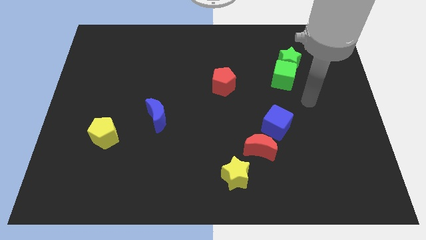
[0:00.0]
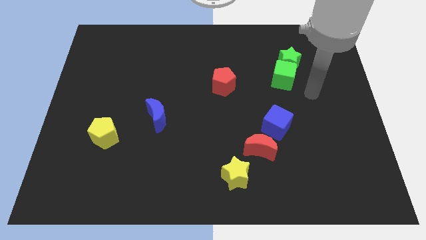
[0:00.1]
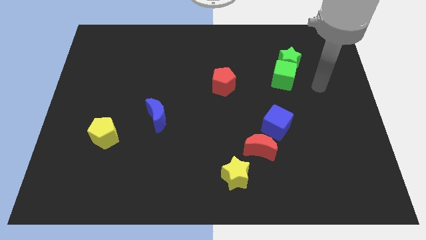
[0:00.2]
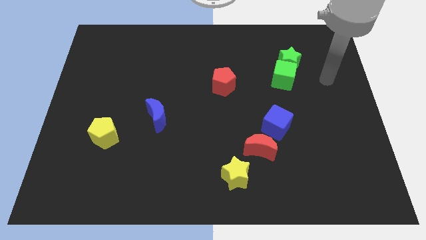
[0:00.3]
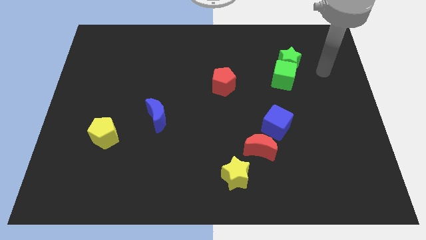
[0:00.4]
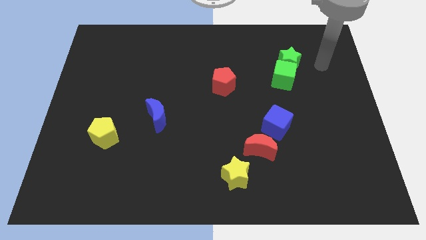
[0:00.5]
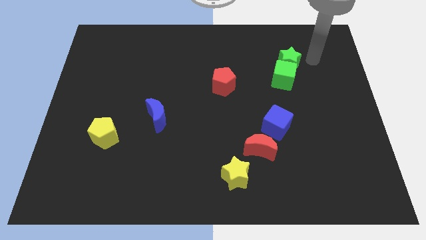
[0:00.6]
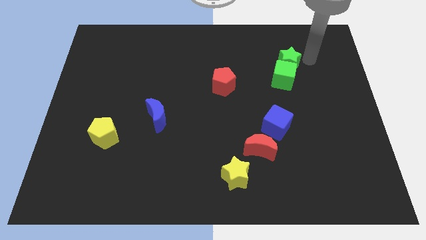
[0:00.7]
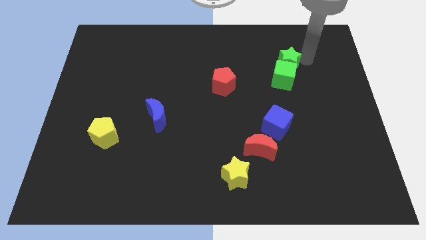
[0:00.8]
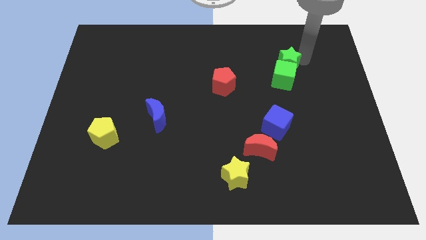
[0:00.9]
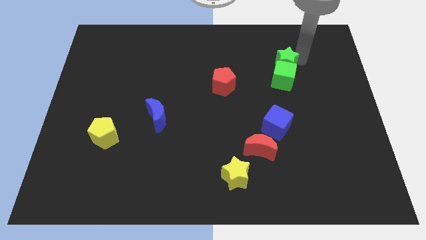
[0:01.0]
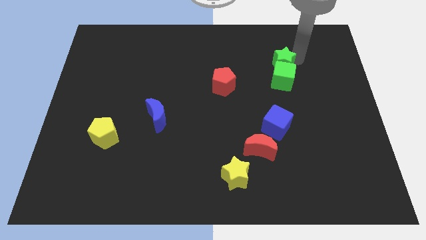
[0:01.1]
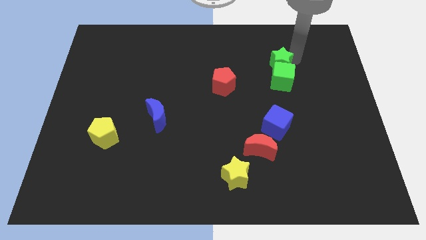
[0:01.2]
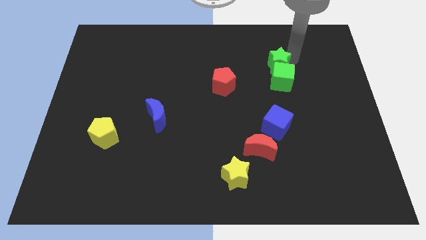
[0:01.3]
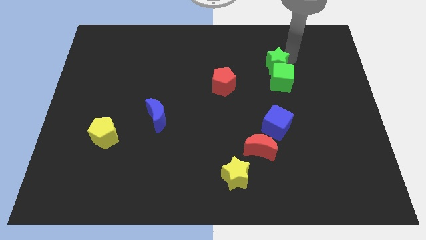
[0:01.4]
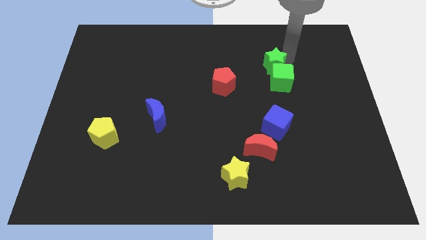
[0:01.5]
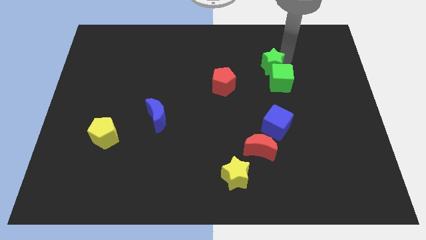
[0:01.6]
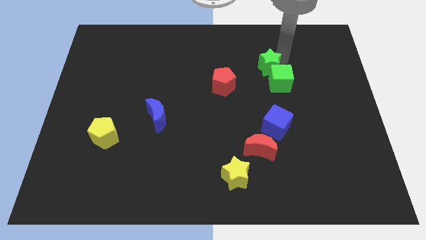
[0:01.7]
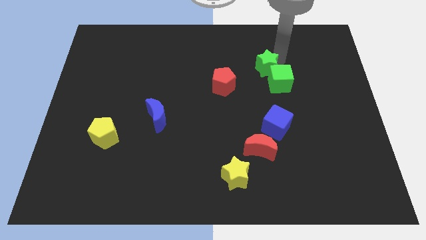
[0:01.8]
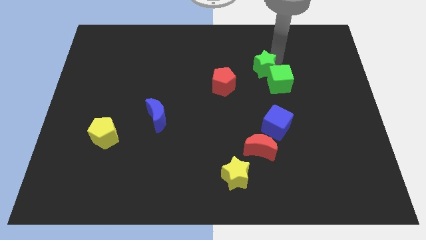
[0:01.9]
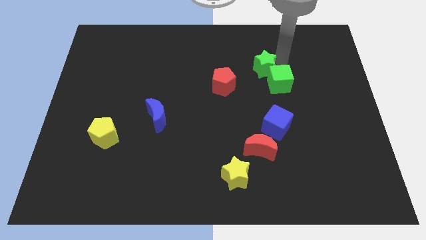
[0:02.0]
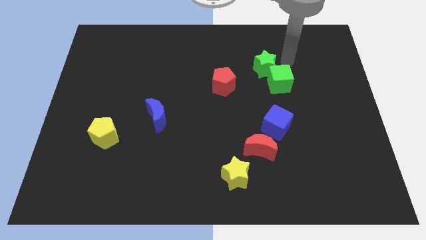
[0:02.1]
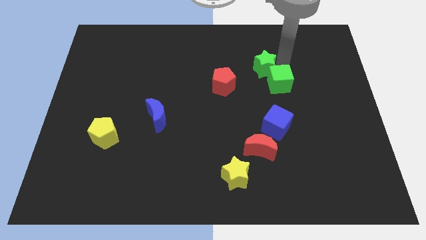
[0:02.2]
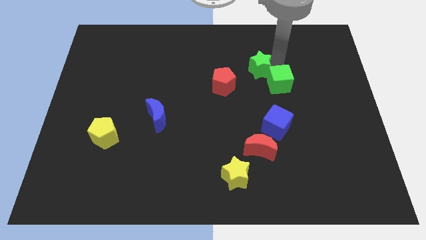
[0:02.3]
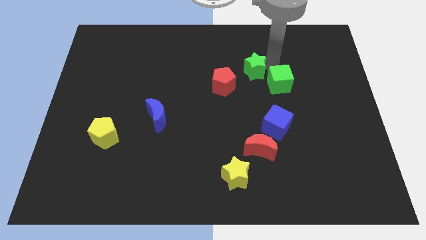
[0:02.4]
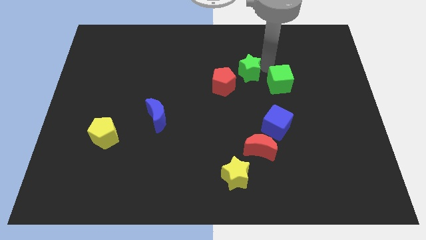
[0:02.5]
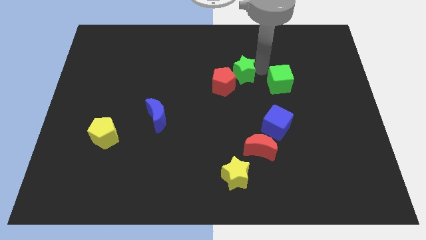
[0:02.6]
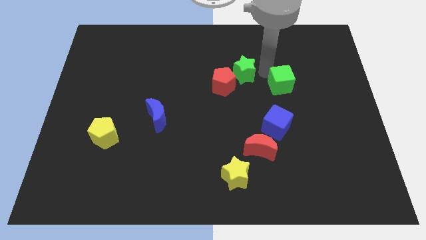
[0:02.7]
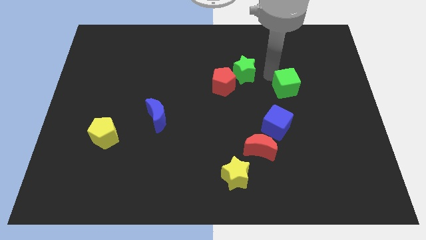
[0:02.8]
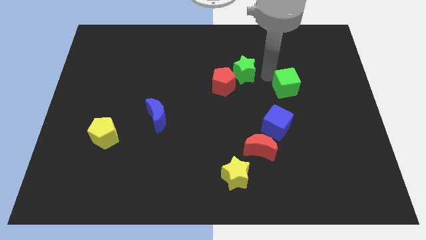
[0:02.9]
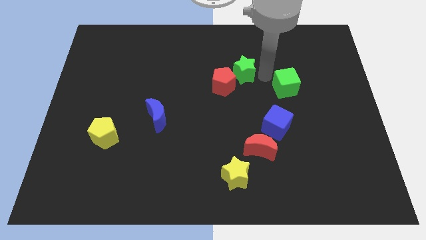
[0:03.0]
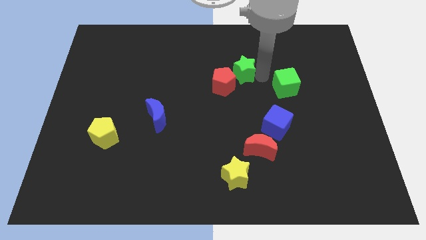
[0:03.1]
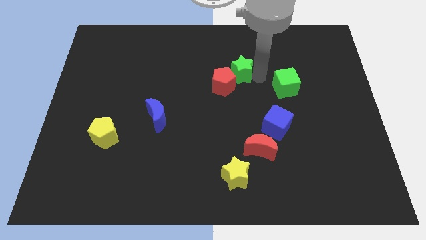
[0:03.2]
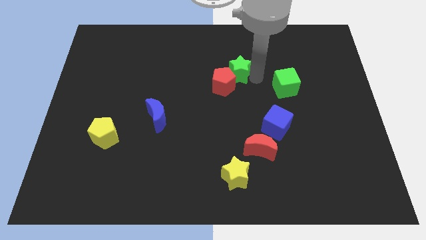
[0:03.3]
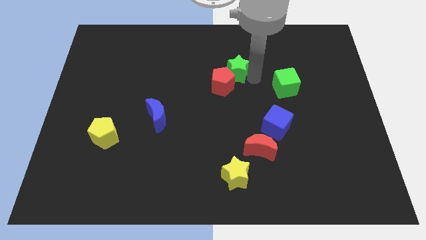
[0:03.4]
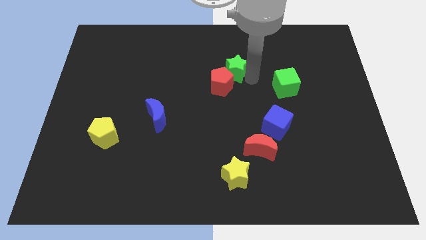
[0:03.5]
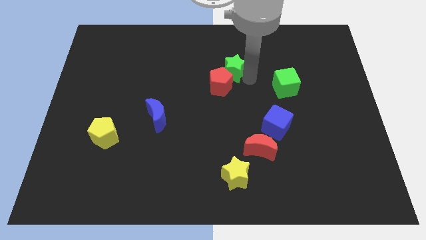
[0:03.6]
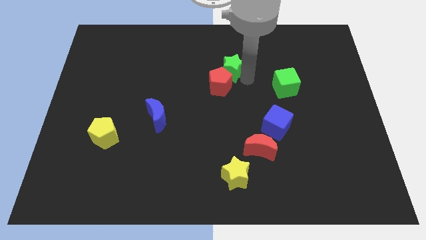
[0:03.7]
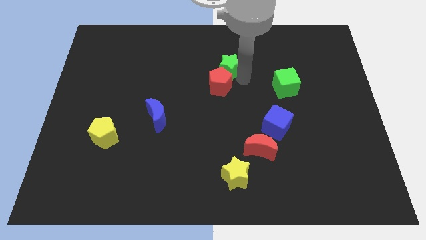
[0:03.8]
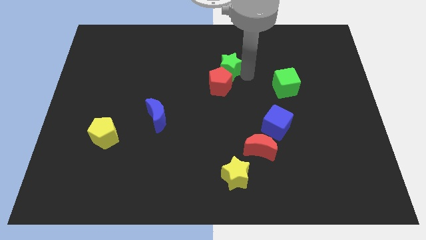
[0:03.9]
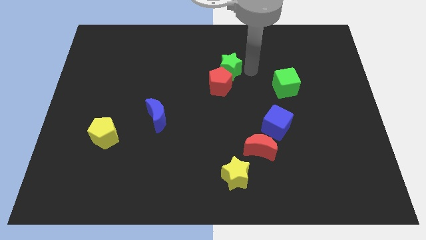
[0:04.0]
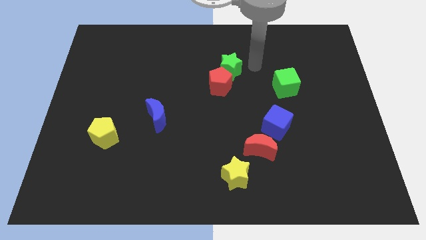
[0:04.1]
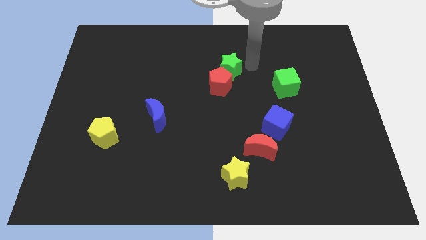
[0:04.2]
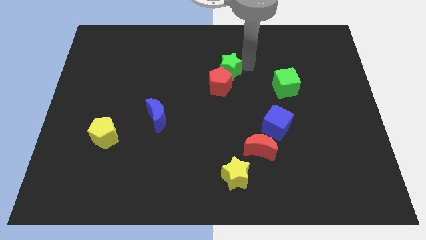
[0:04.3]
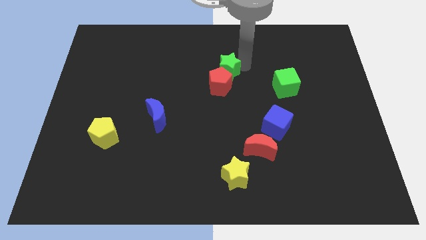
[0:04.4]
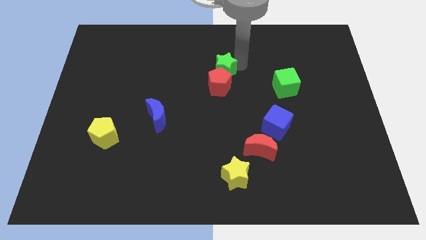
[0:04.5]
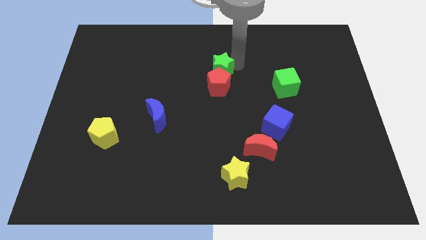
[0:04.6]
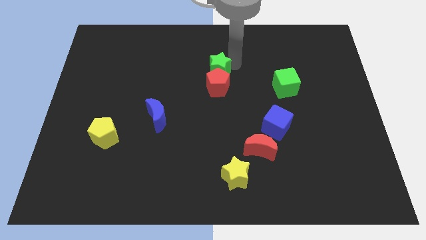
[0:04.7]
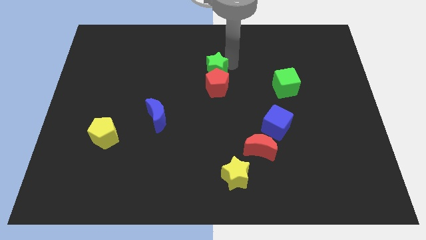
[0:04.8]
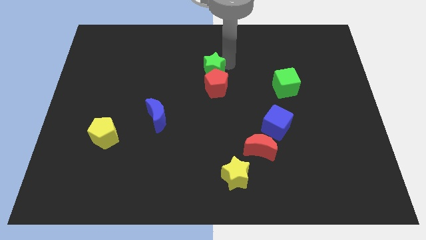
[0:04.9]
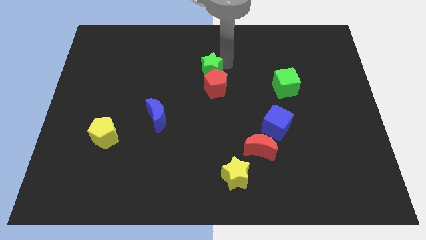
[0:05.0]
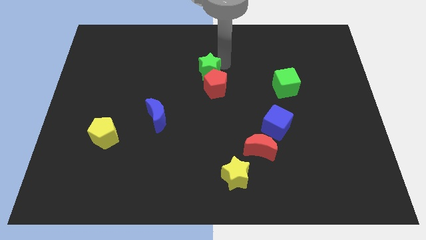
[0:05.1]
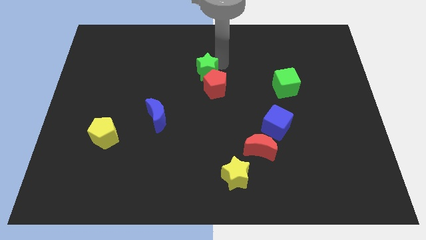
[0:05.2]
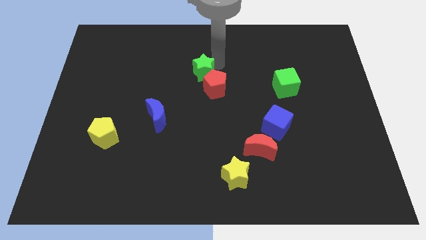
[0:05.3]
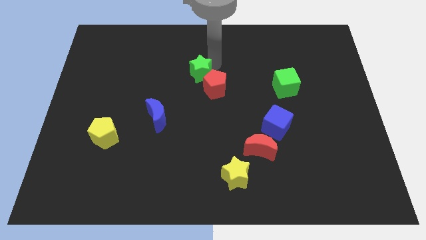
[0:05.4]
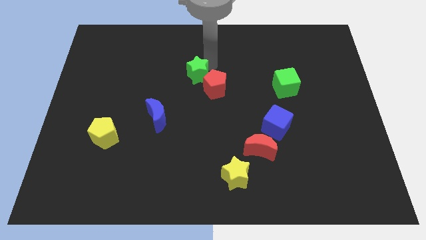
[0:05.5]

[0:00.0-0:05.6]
move the green star to the left side of the red pentagon

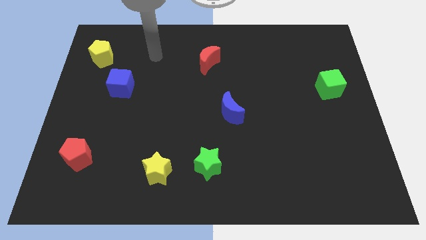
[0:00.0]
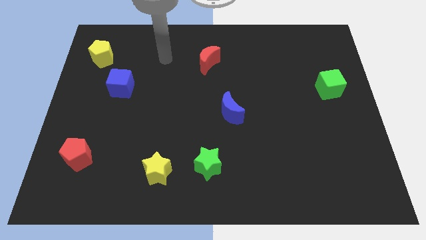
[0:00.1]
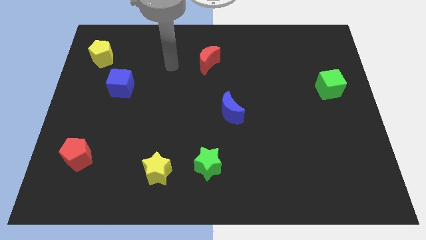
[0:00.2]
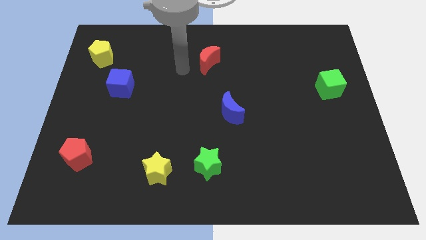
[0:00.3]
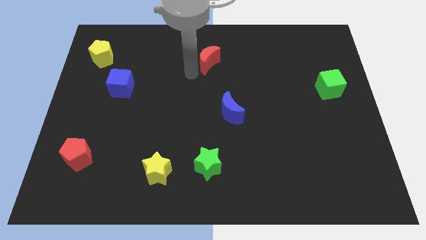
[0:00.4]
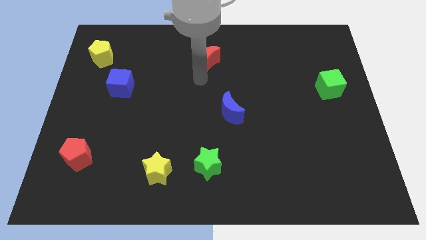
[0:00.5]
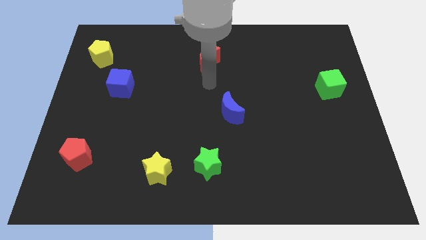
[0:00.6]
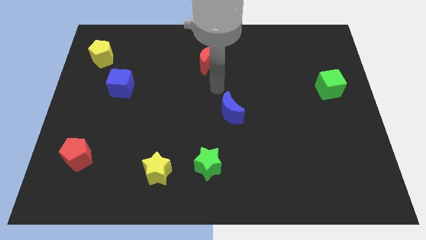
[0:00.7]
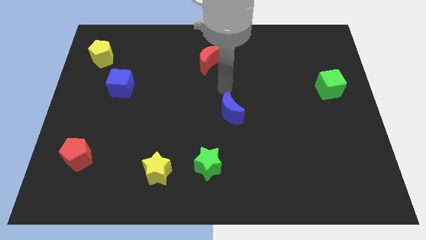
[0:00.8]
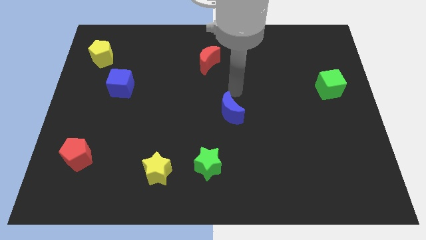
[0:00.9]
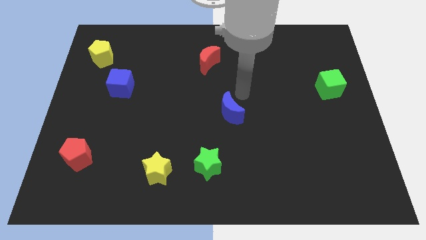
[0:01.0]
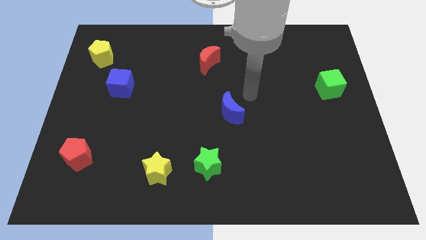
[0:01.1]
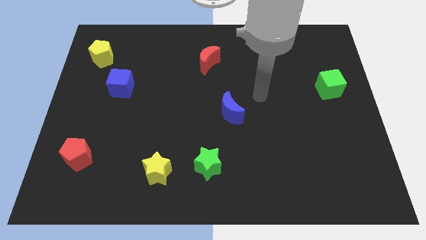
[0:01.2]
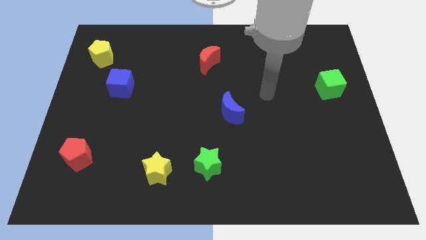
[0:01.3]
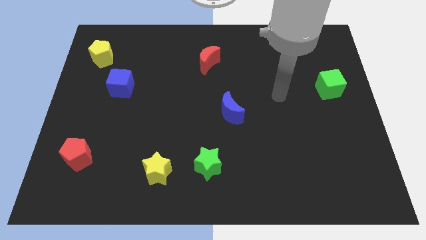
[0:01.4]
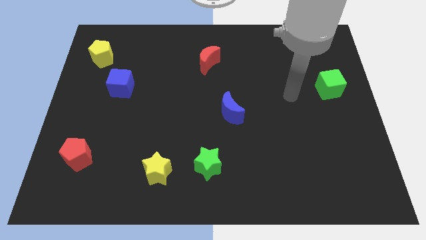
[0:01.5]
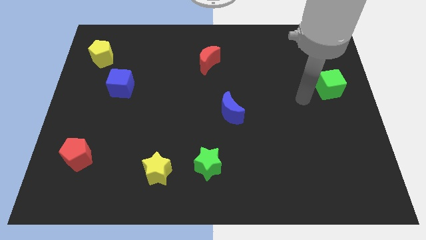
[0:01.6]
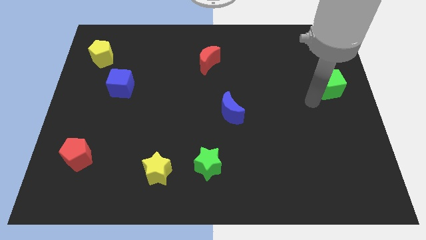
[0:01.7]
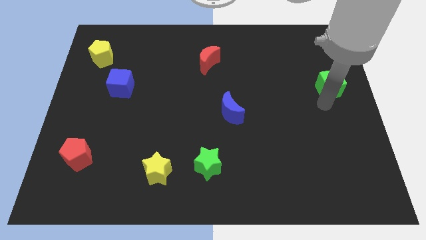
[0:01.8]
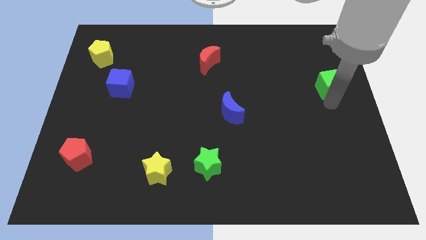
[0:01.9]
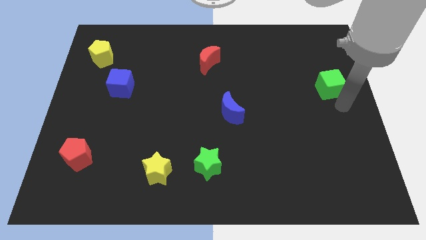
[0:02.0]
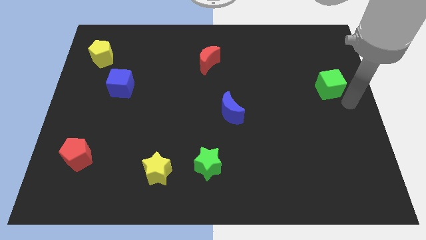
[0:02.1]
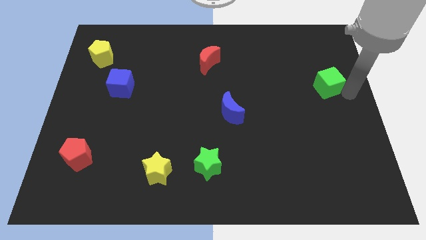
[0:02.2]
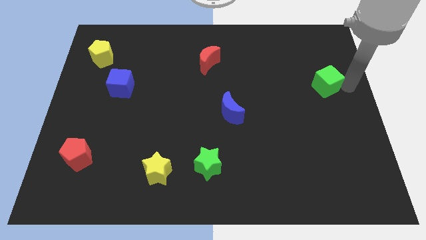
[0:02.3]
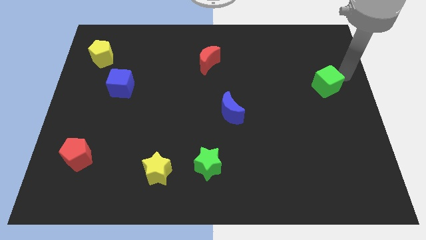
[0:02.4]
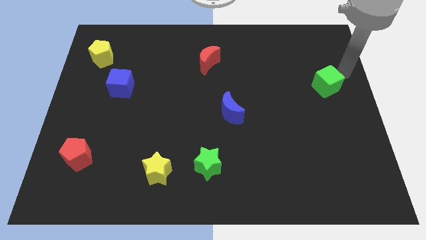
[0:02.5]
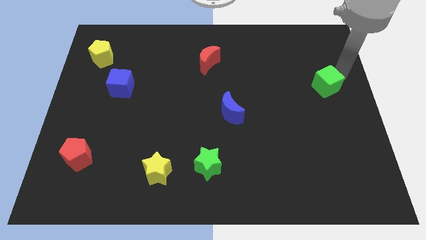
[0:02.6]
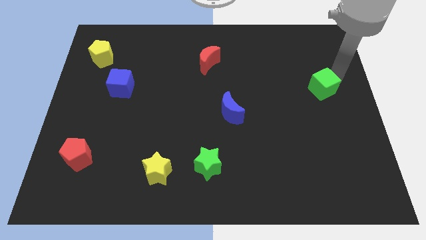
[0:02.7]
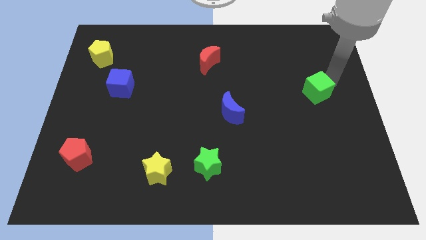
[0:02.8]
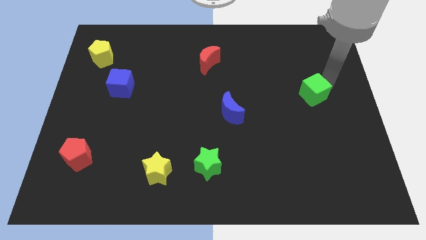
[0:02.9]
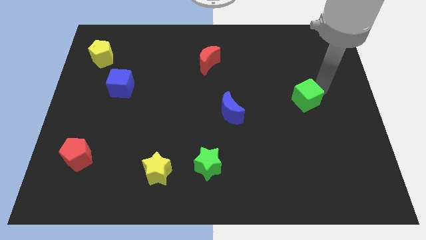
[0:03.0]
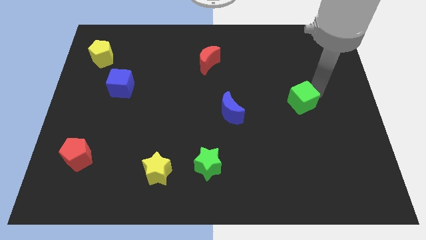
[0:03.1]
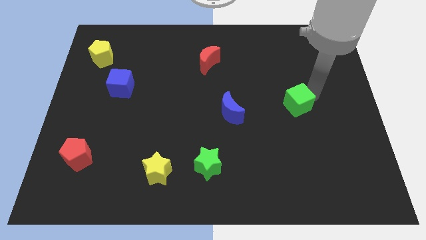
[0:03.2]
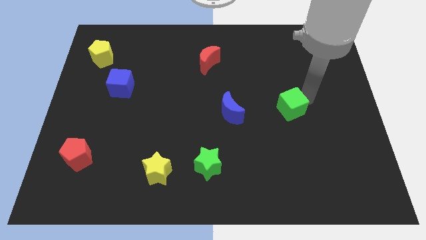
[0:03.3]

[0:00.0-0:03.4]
put the green cube just right of the blue moon
